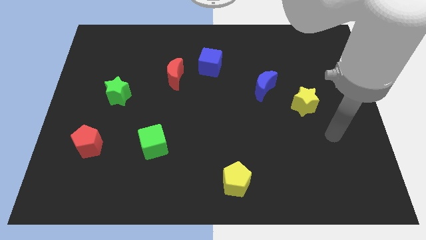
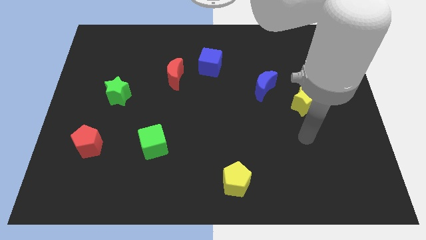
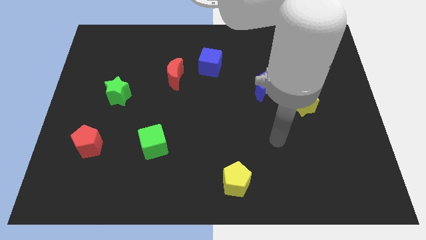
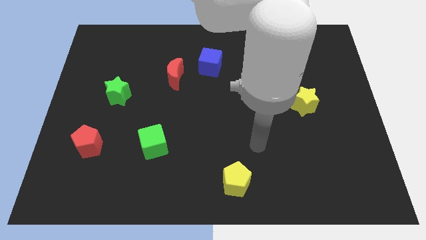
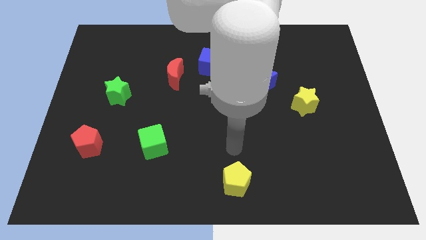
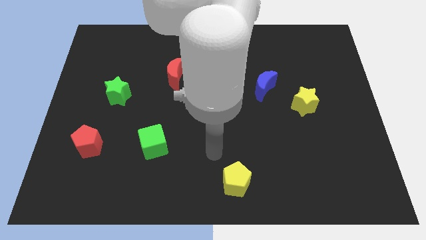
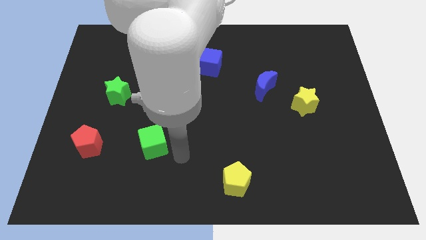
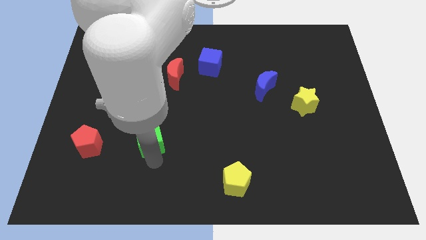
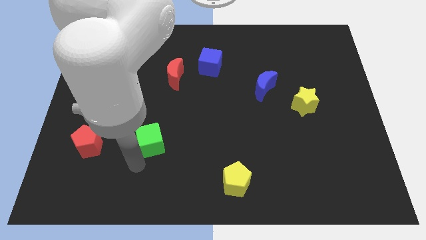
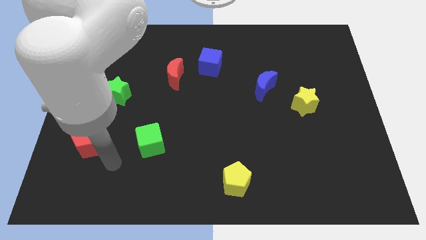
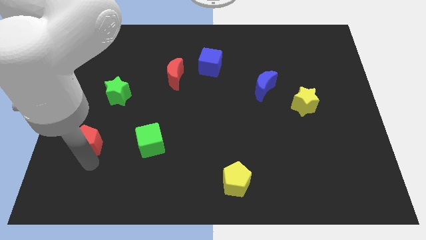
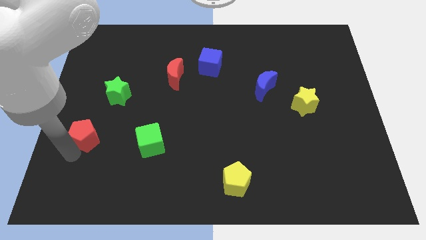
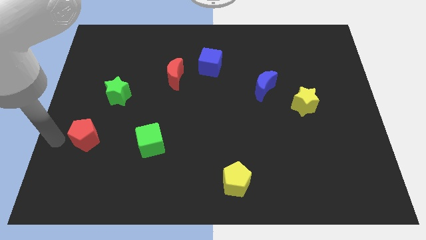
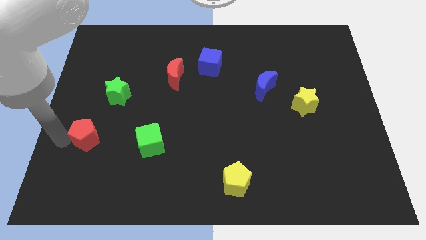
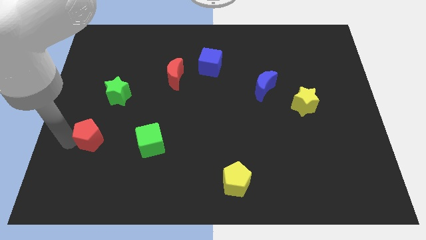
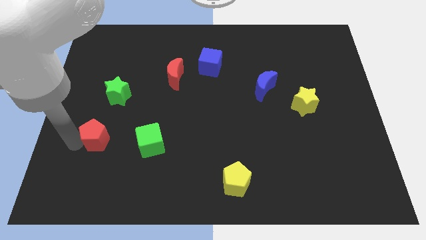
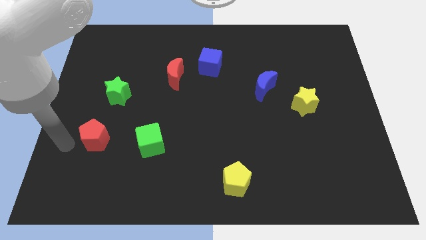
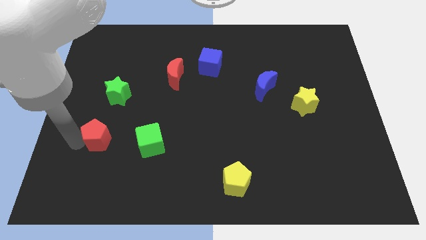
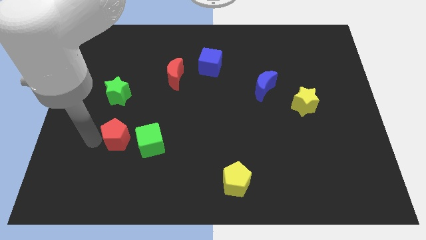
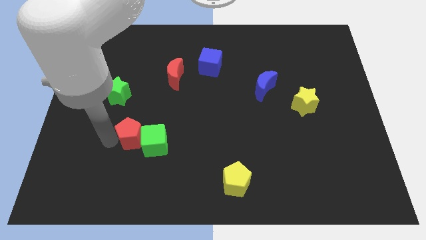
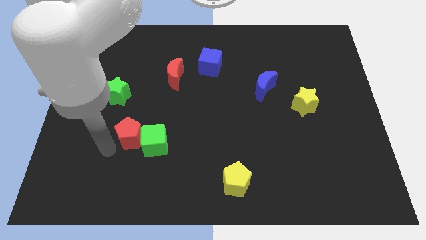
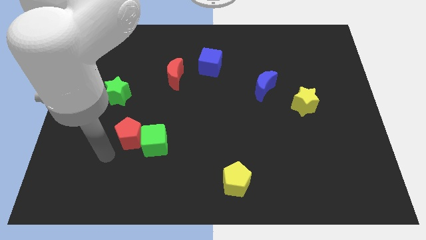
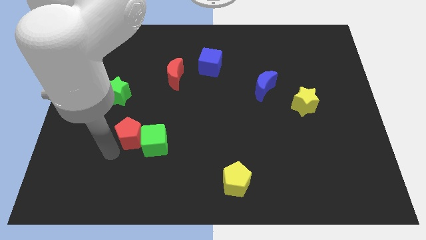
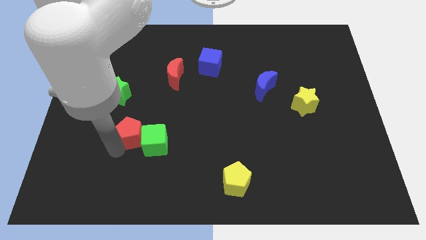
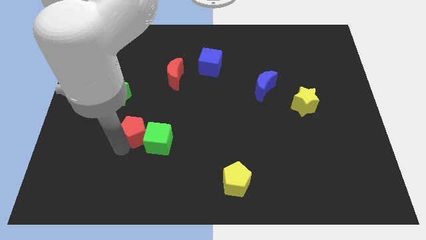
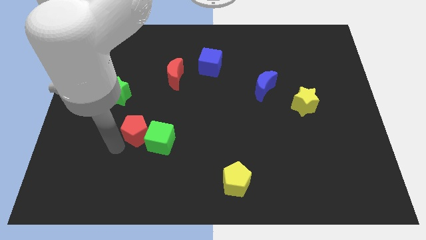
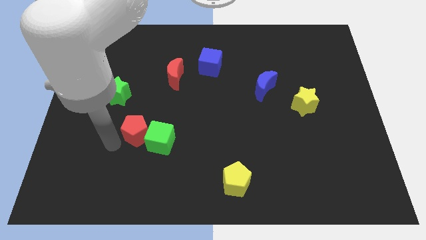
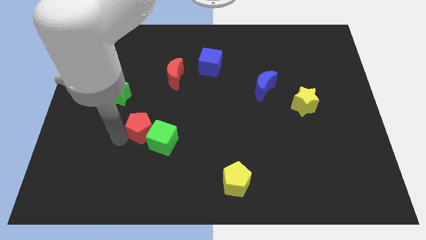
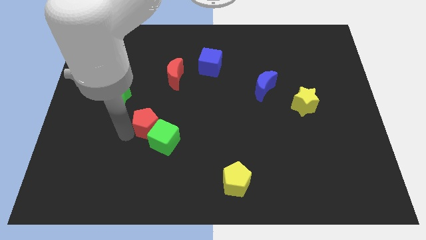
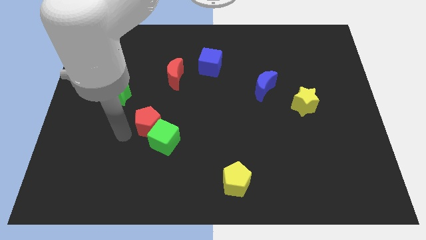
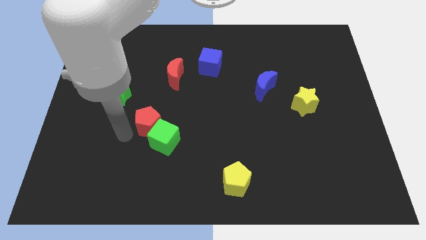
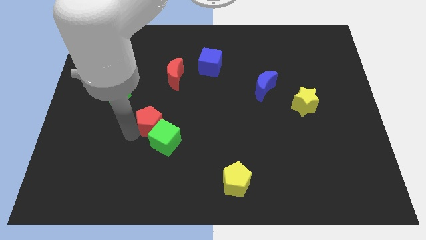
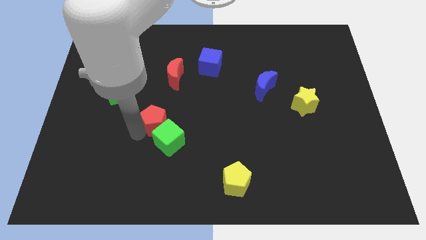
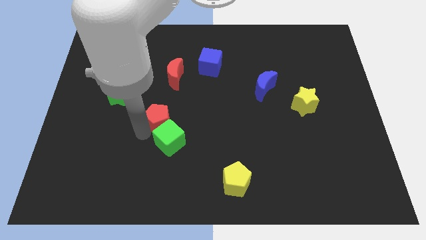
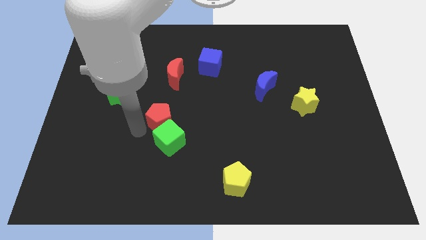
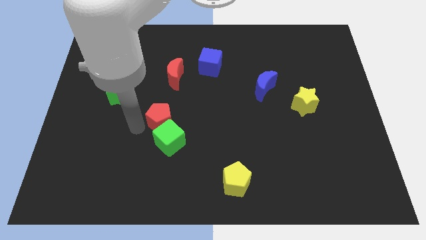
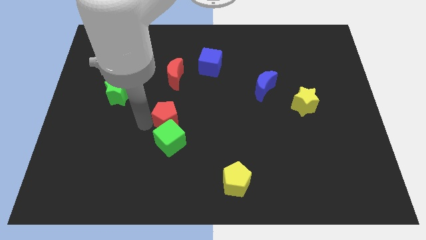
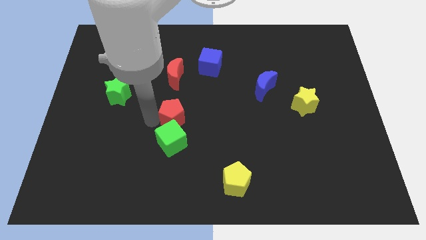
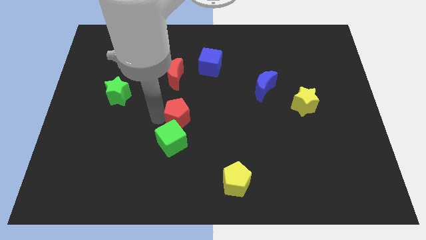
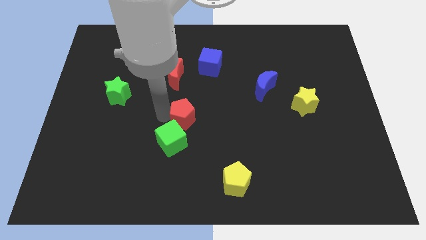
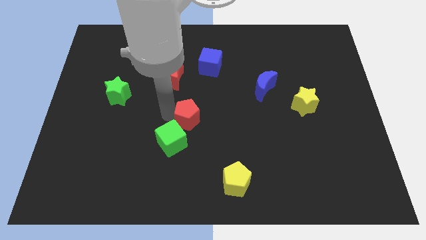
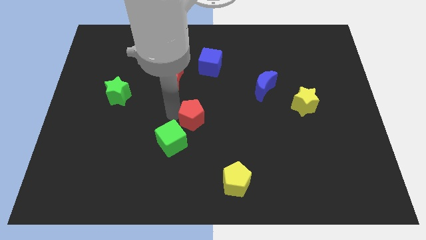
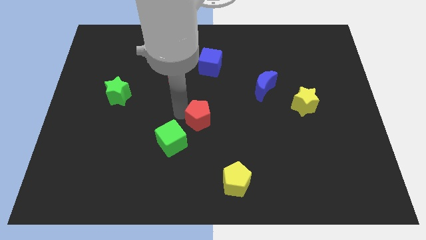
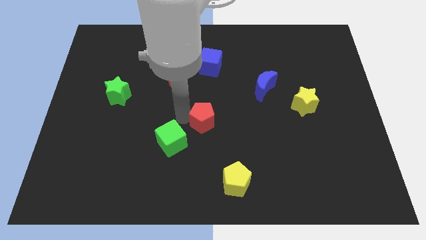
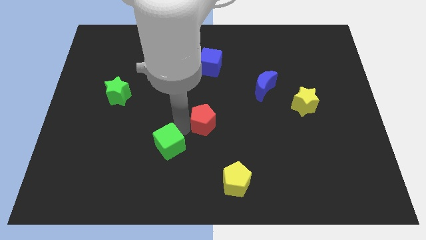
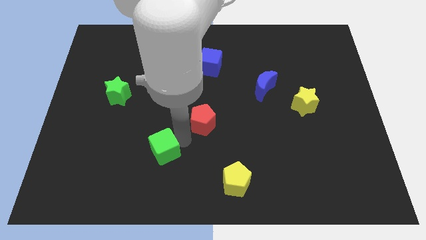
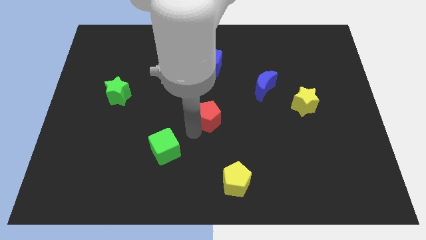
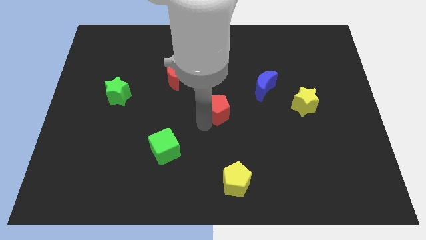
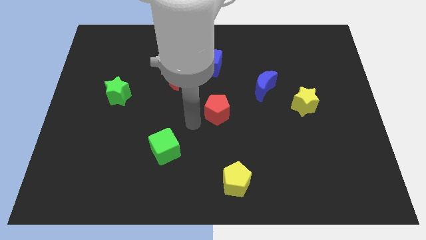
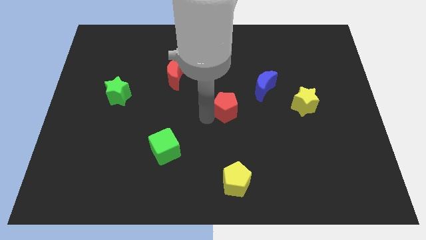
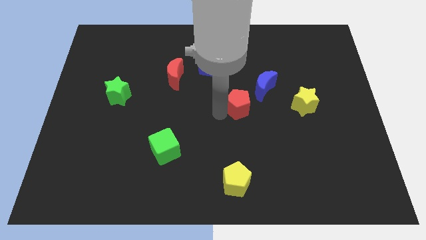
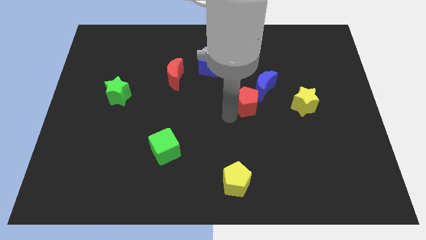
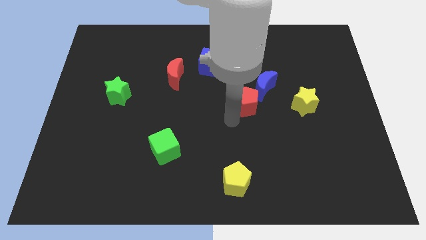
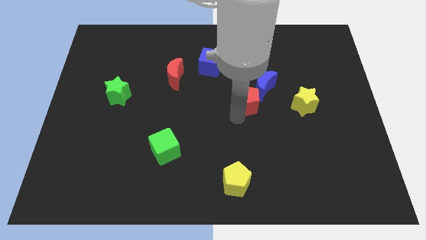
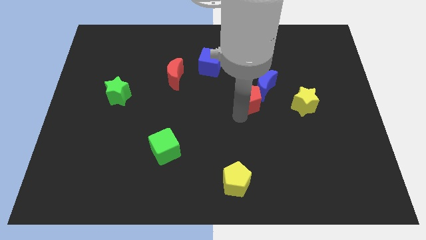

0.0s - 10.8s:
move the red pentagon towards the blue moon

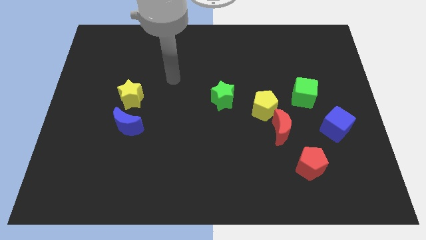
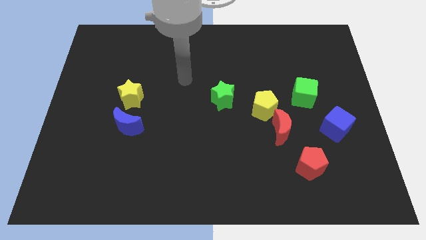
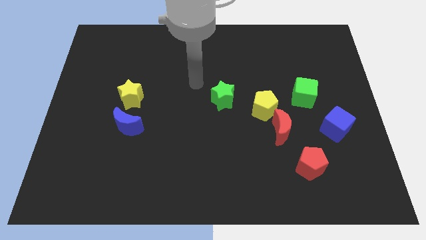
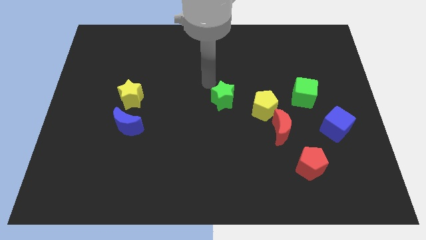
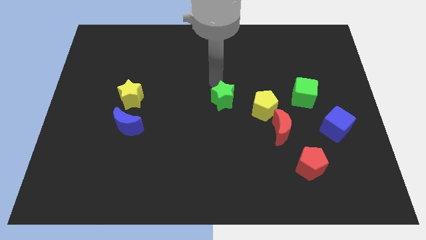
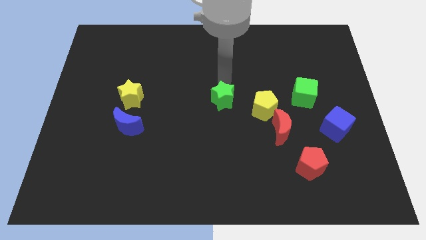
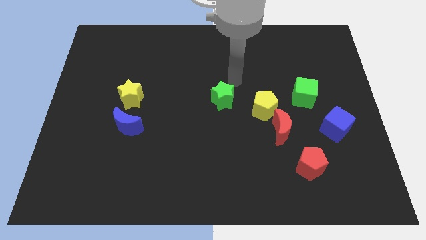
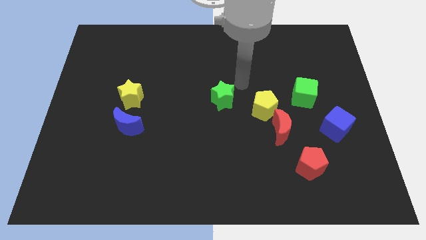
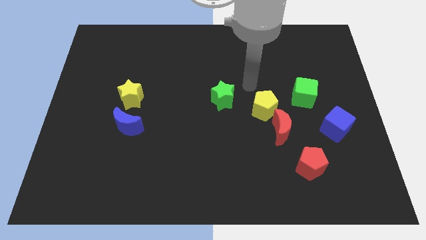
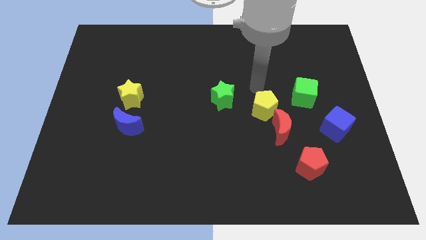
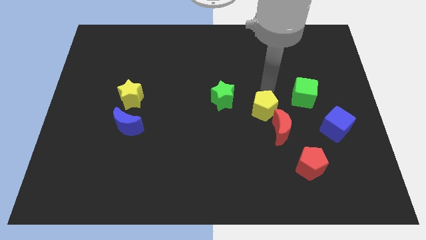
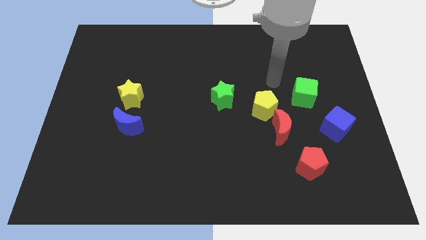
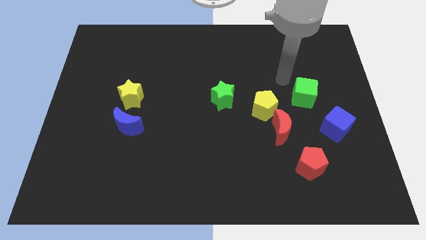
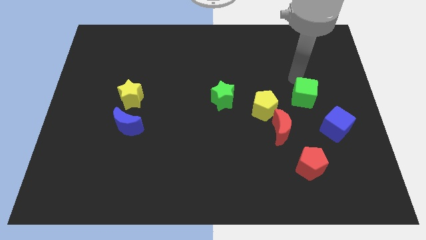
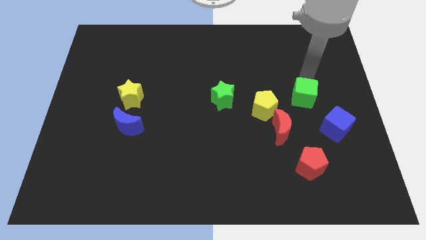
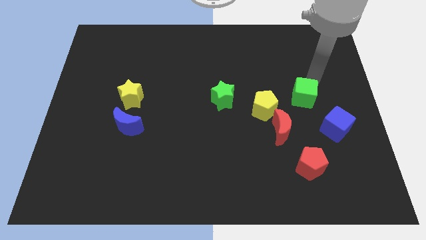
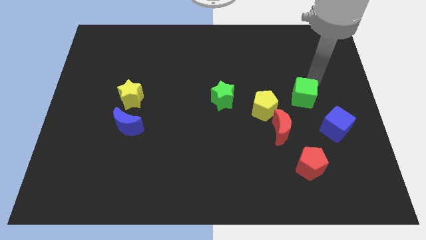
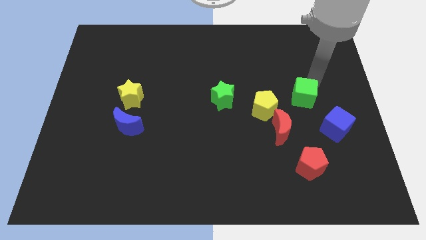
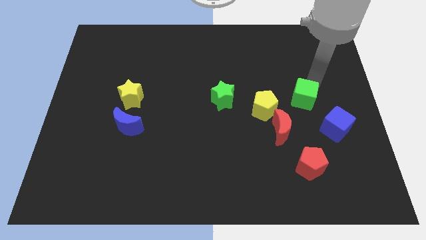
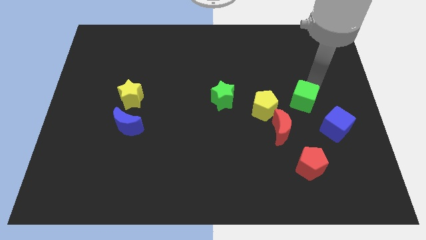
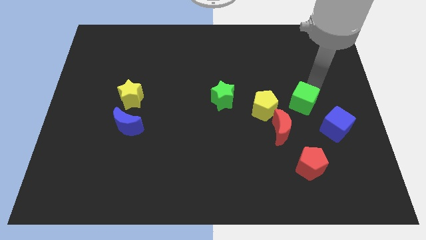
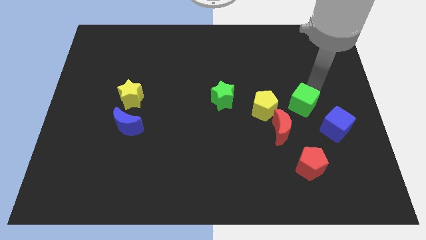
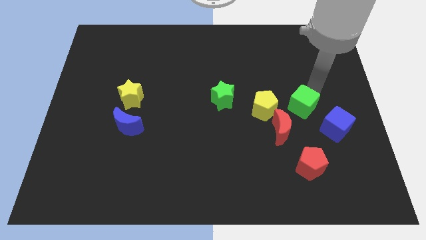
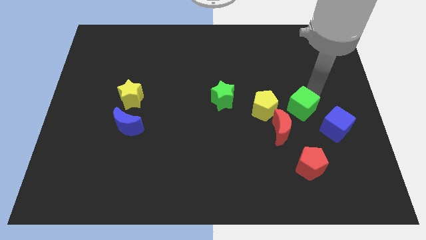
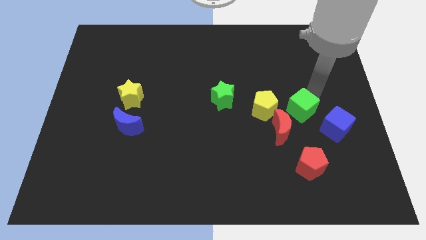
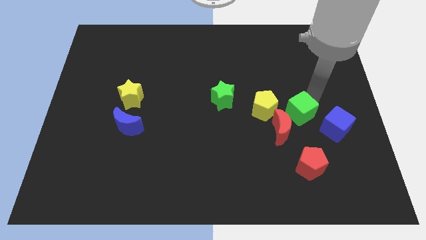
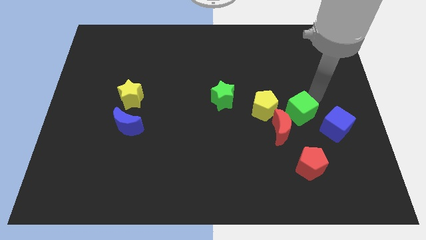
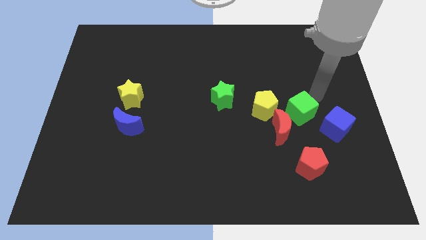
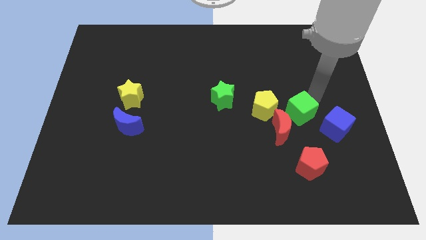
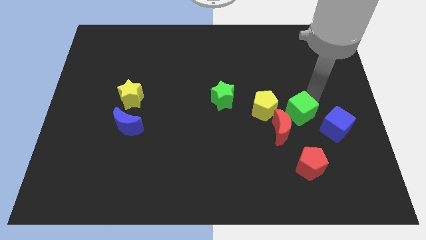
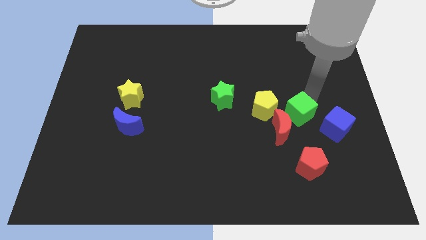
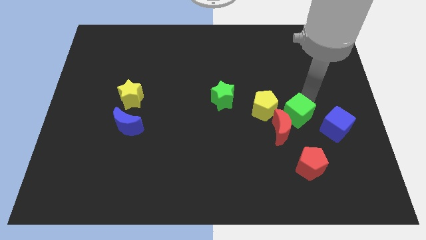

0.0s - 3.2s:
move the green cube next to the red moon
